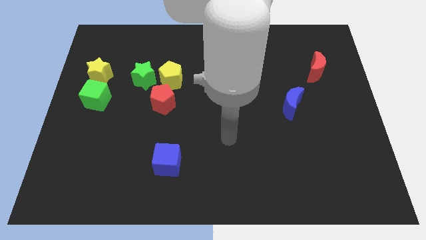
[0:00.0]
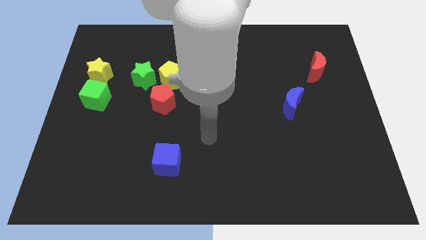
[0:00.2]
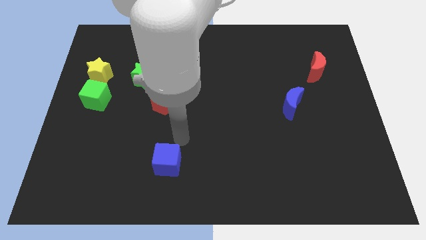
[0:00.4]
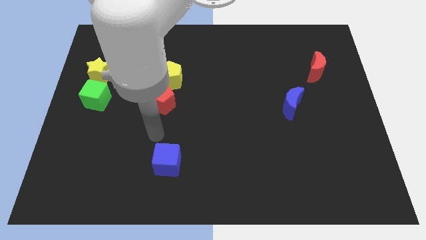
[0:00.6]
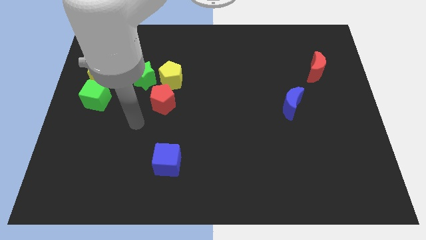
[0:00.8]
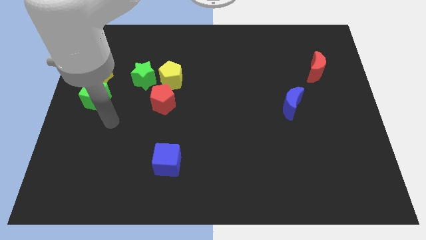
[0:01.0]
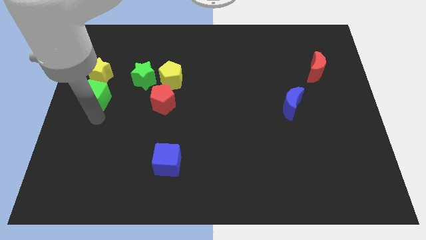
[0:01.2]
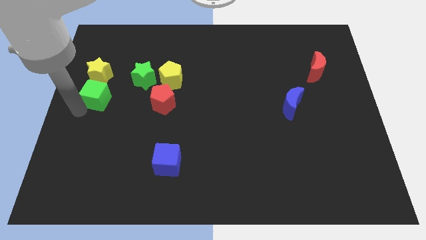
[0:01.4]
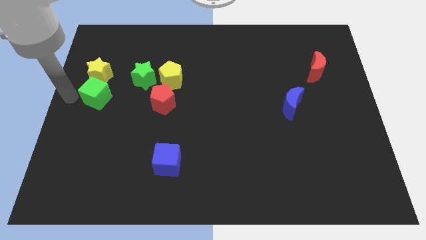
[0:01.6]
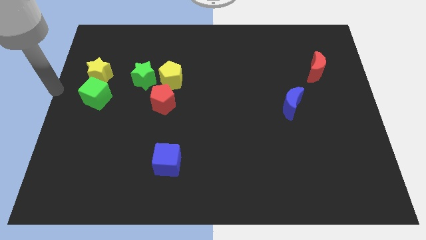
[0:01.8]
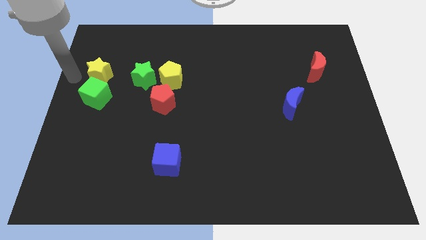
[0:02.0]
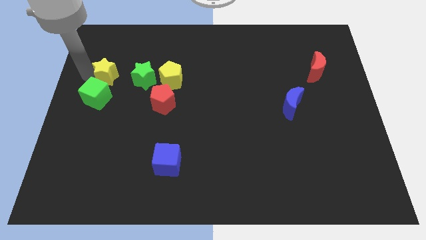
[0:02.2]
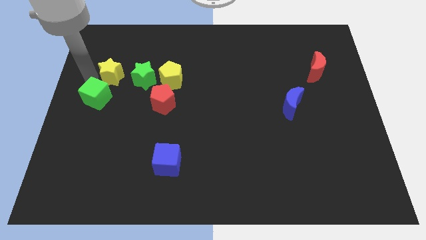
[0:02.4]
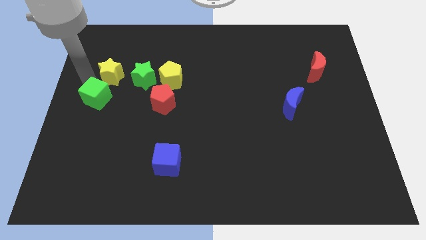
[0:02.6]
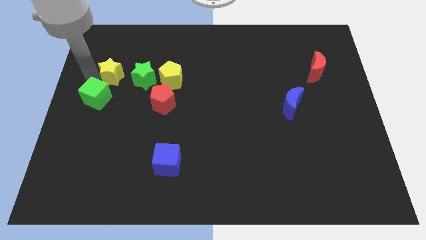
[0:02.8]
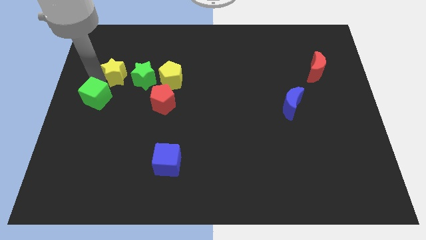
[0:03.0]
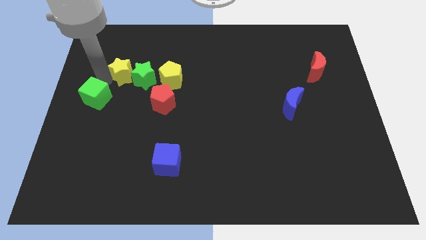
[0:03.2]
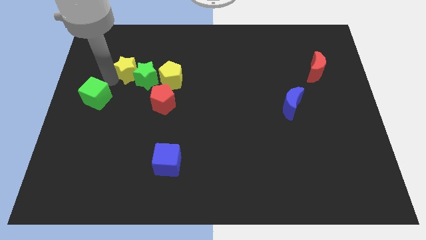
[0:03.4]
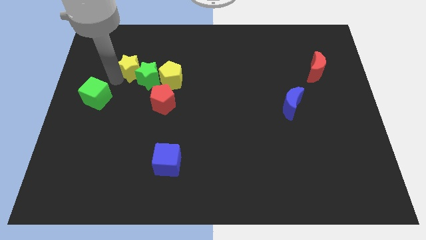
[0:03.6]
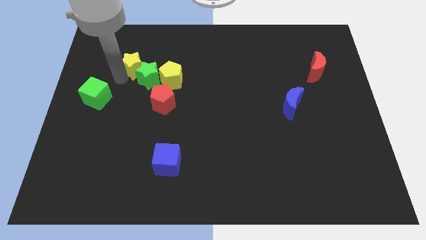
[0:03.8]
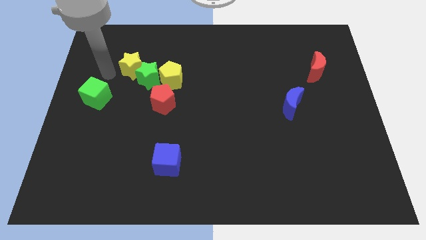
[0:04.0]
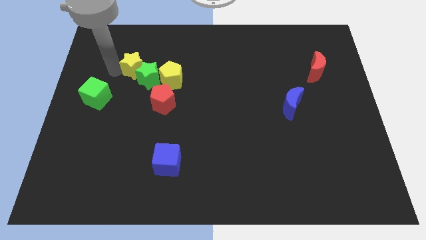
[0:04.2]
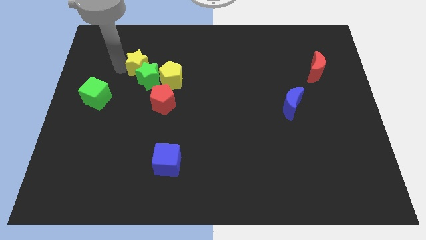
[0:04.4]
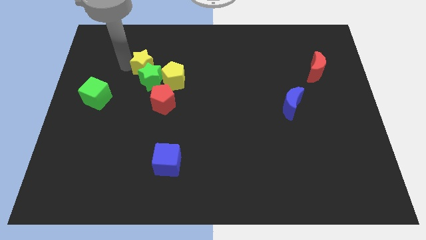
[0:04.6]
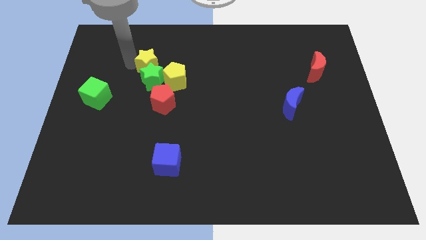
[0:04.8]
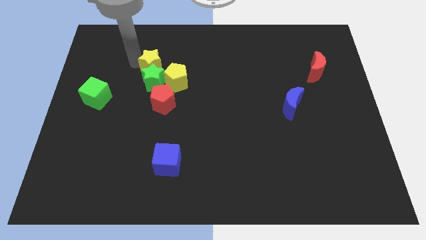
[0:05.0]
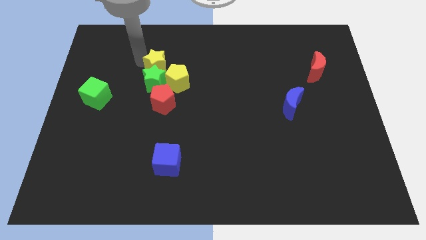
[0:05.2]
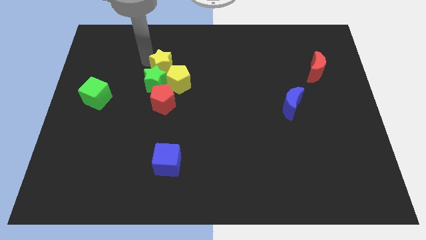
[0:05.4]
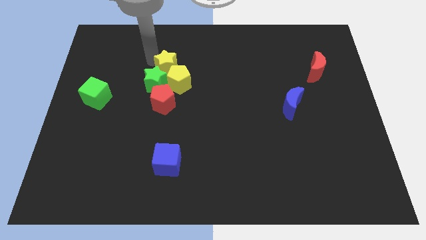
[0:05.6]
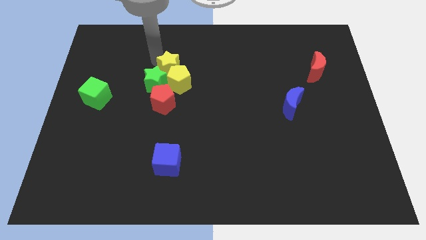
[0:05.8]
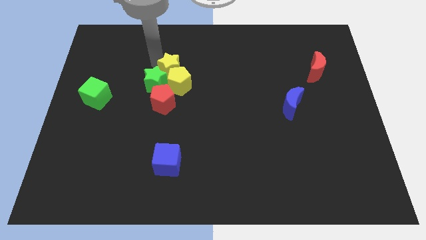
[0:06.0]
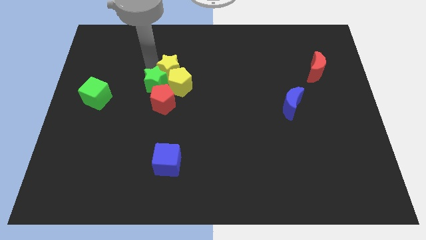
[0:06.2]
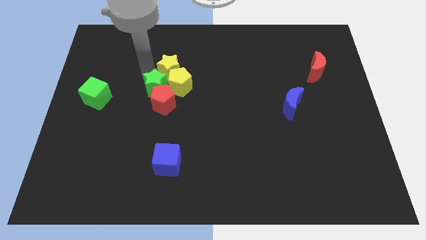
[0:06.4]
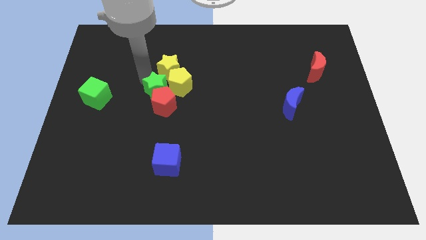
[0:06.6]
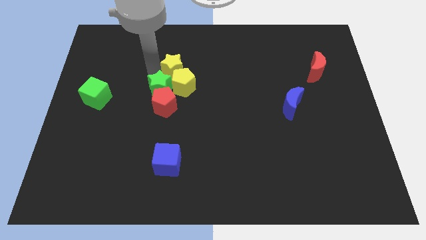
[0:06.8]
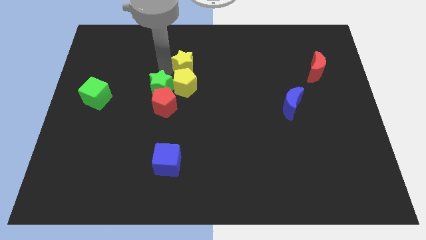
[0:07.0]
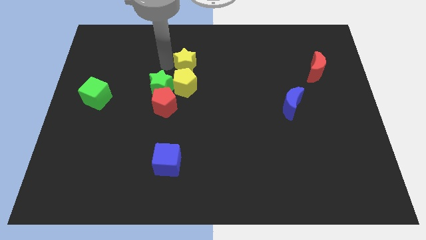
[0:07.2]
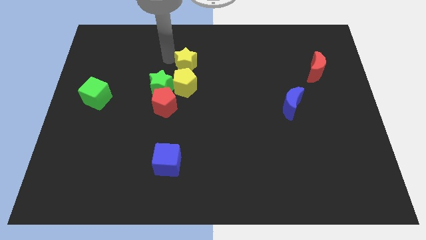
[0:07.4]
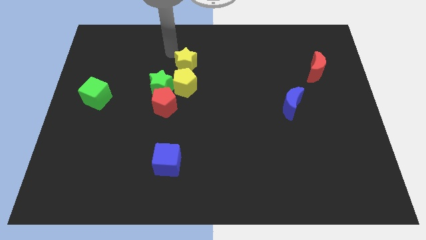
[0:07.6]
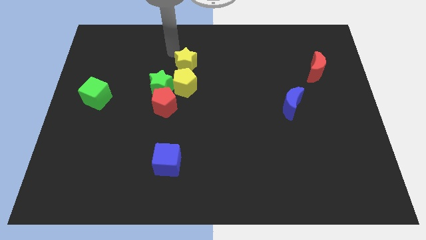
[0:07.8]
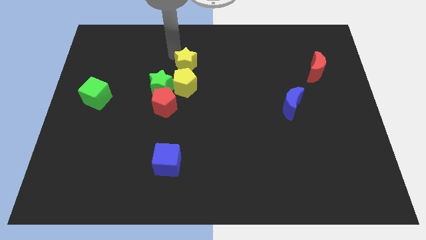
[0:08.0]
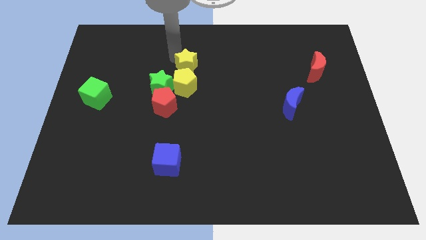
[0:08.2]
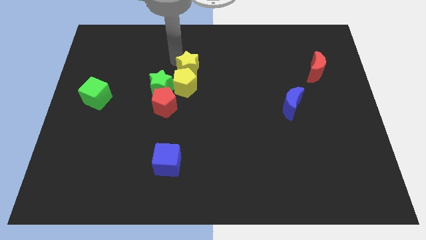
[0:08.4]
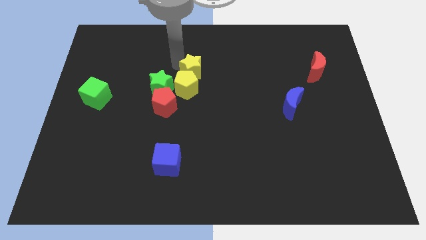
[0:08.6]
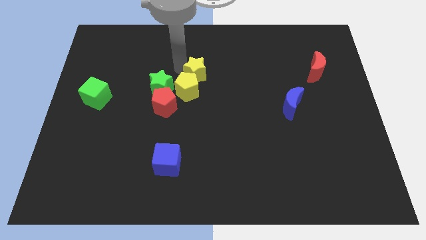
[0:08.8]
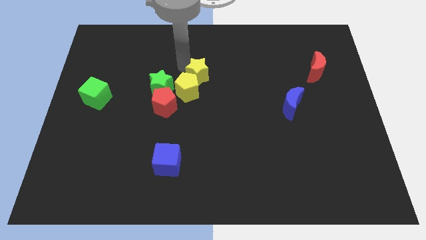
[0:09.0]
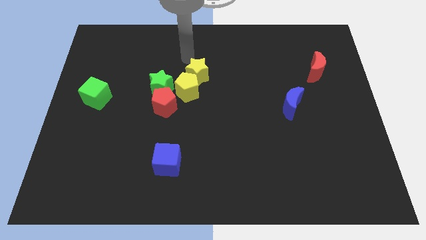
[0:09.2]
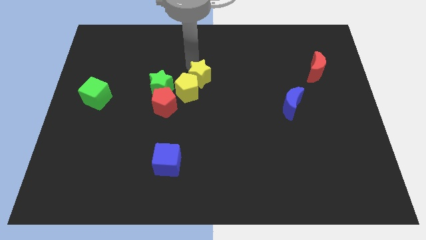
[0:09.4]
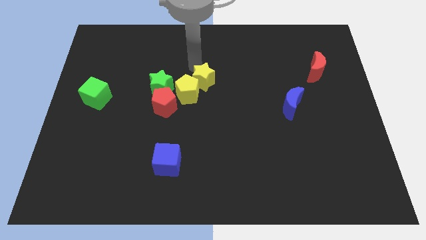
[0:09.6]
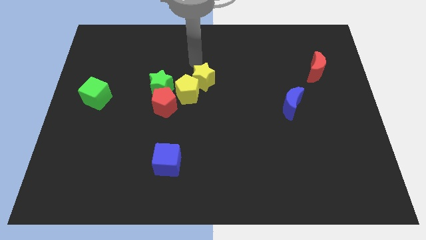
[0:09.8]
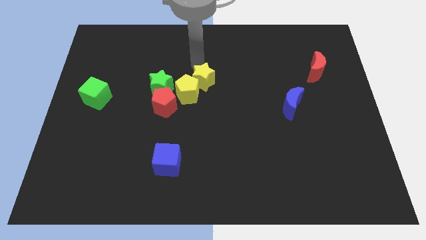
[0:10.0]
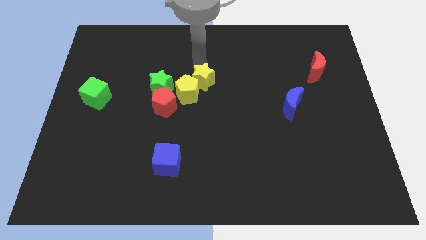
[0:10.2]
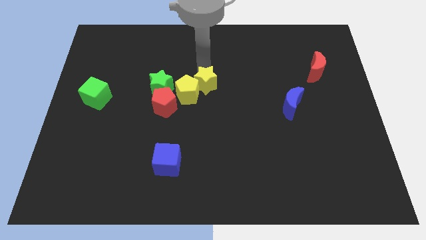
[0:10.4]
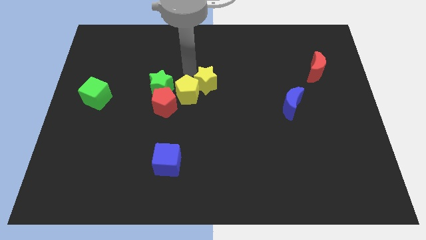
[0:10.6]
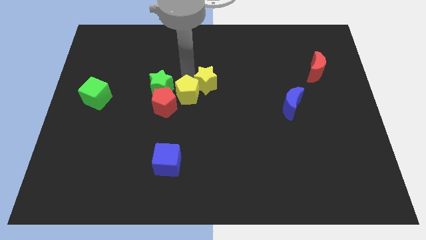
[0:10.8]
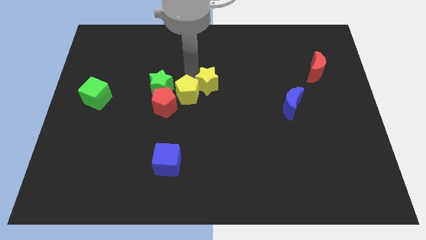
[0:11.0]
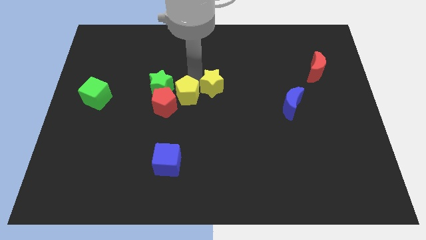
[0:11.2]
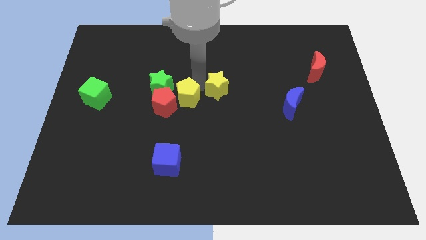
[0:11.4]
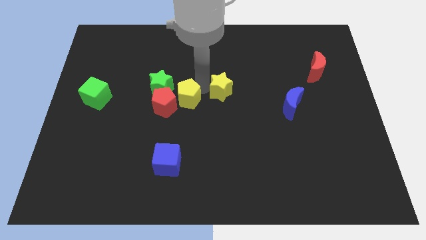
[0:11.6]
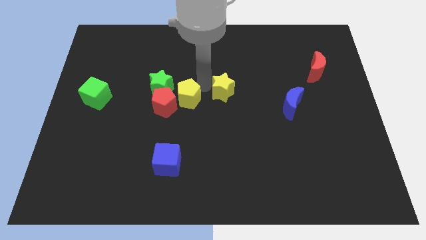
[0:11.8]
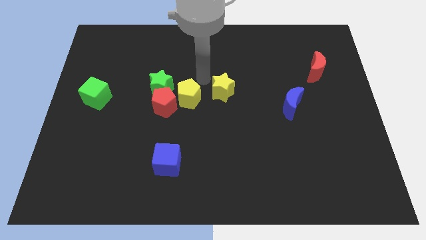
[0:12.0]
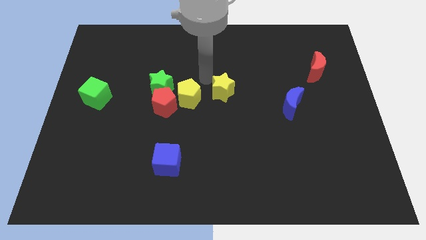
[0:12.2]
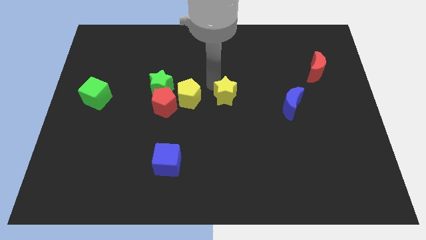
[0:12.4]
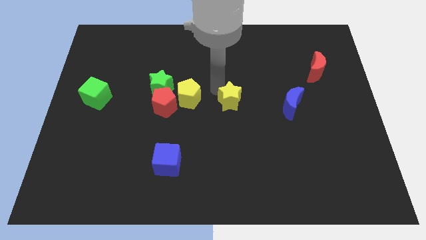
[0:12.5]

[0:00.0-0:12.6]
slide the yellow star left of the blue moon

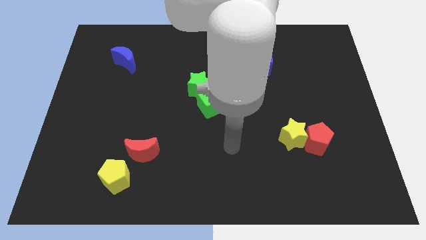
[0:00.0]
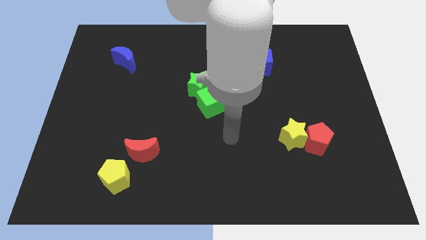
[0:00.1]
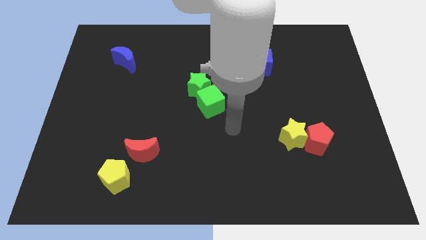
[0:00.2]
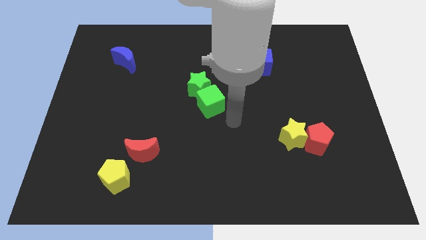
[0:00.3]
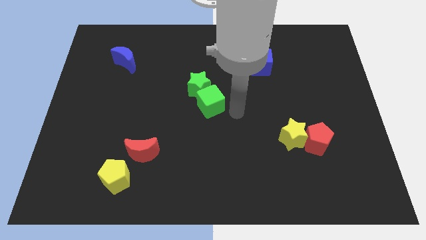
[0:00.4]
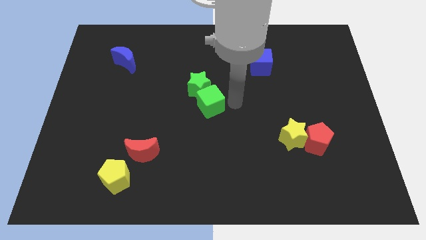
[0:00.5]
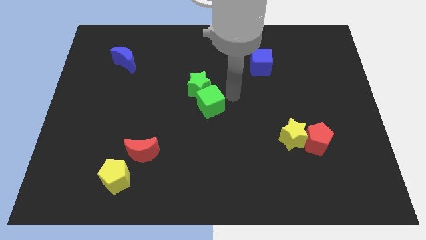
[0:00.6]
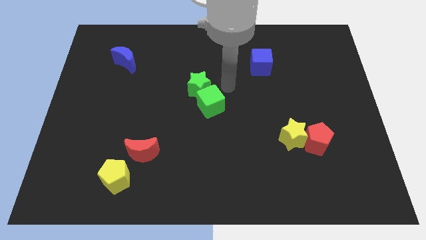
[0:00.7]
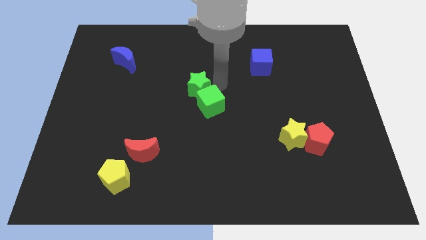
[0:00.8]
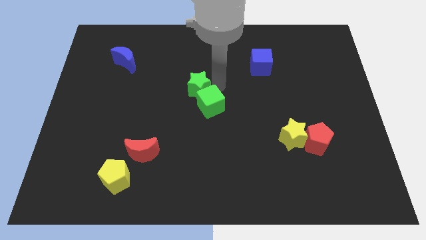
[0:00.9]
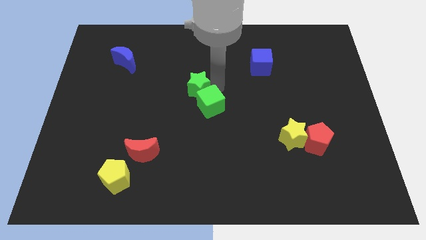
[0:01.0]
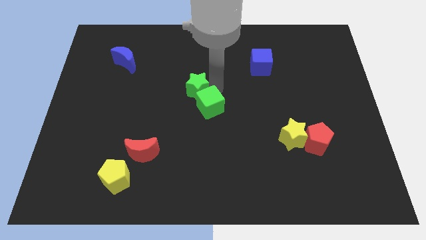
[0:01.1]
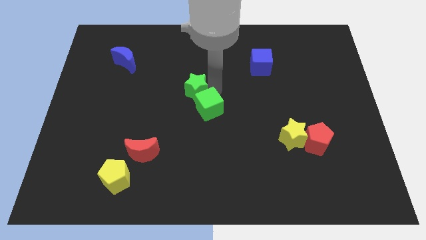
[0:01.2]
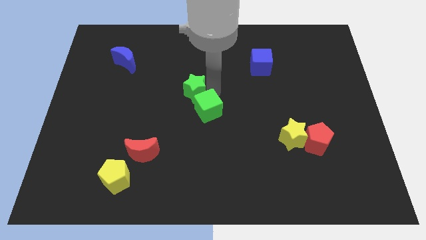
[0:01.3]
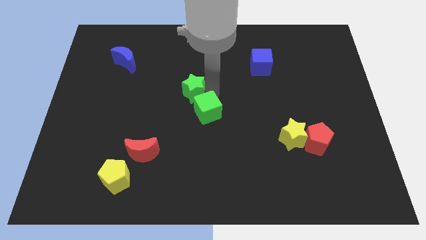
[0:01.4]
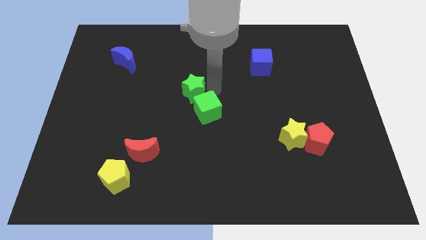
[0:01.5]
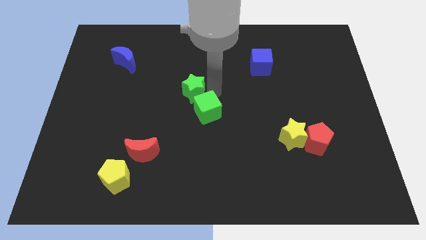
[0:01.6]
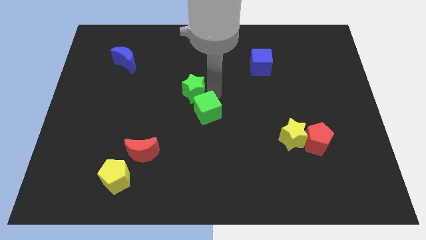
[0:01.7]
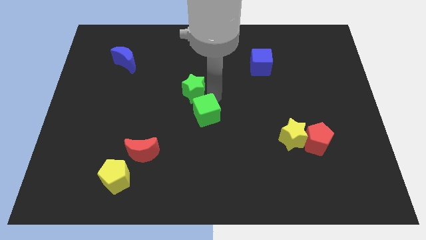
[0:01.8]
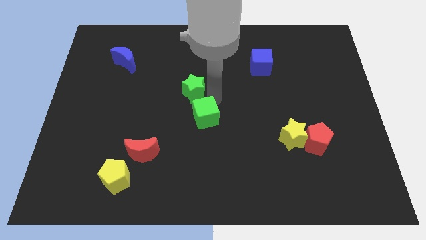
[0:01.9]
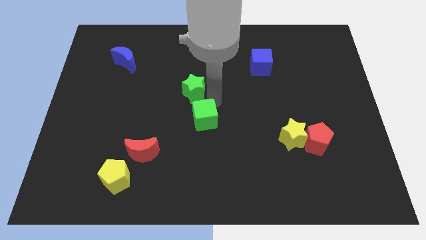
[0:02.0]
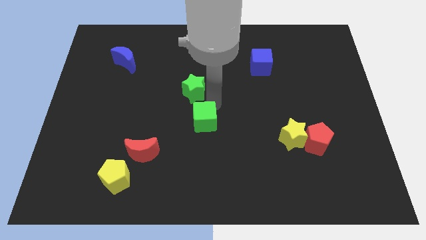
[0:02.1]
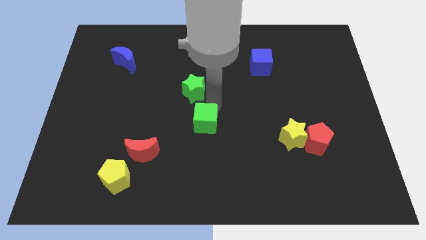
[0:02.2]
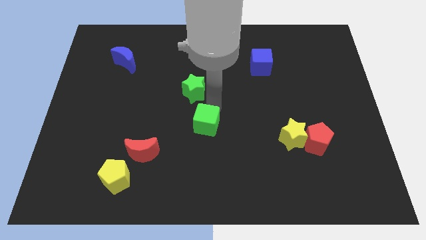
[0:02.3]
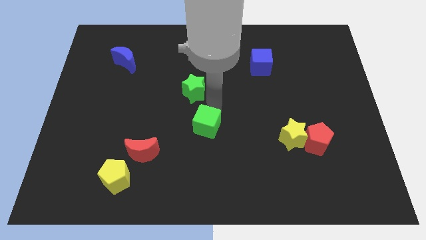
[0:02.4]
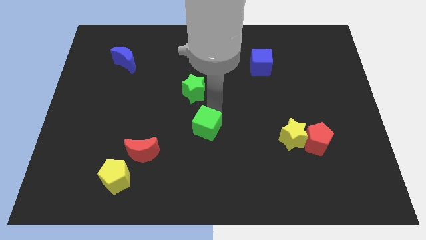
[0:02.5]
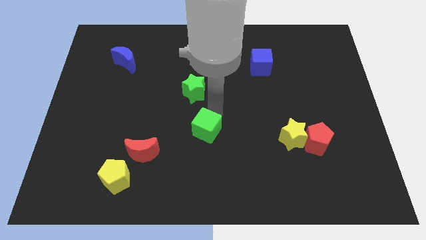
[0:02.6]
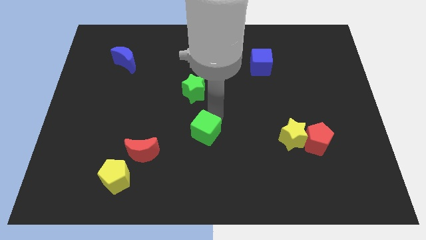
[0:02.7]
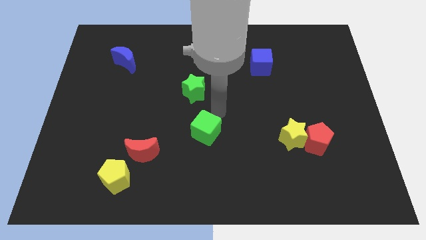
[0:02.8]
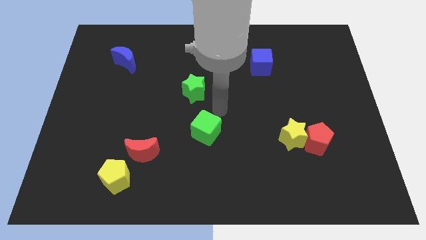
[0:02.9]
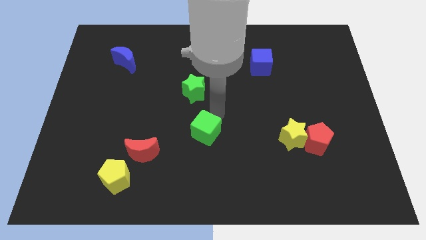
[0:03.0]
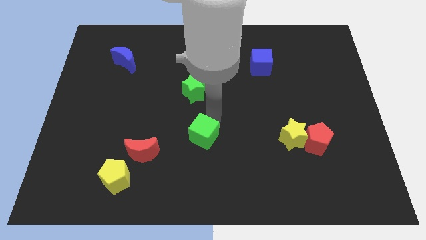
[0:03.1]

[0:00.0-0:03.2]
move the green cube just right of the red moon
